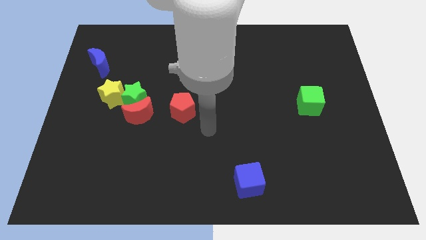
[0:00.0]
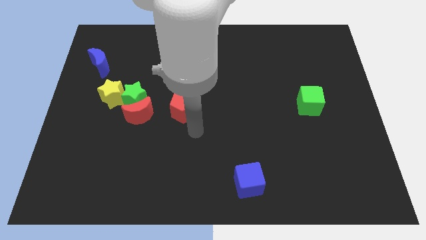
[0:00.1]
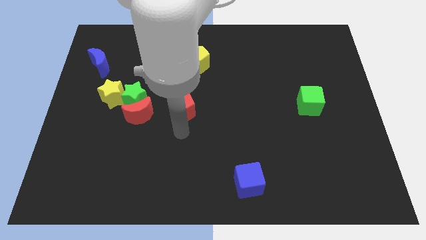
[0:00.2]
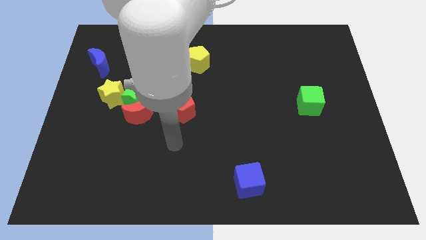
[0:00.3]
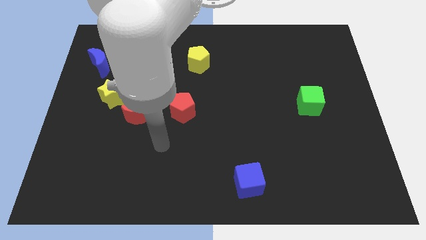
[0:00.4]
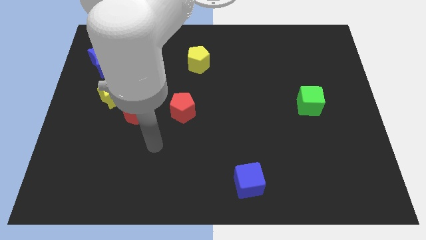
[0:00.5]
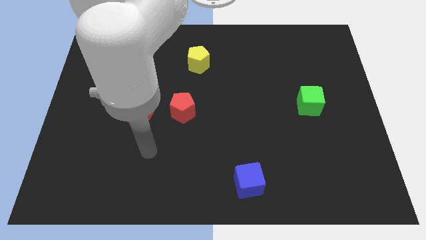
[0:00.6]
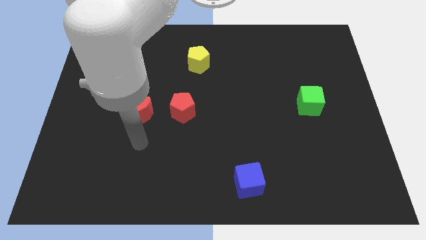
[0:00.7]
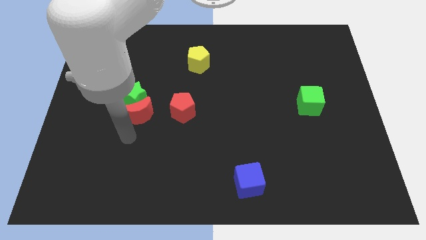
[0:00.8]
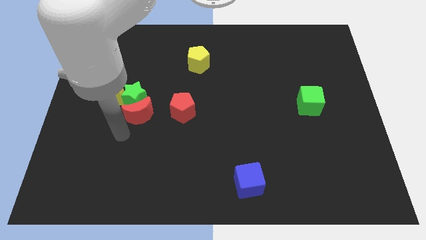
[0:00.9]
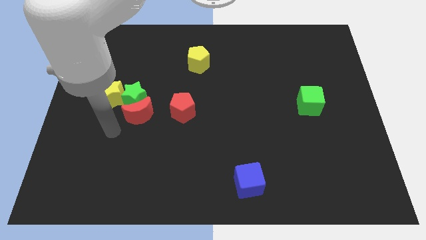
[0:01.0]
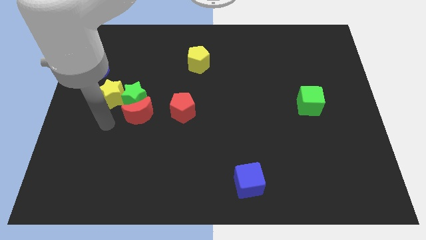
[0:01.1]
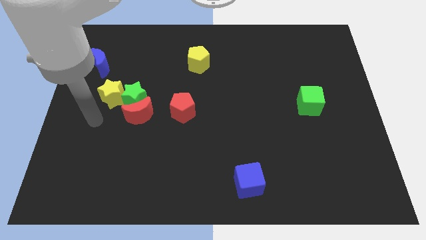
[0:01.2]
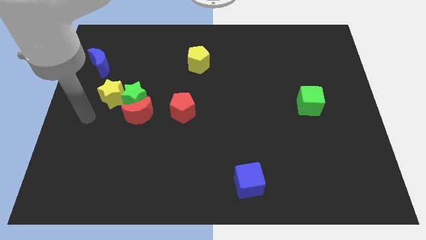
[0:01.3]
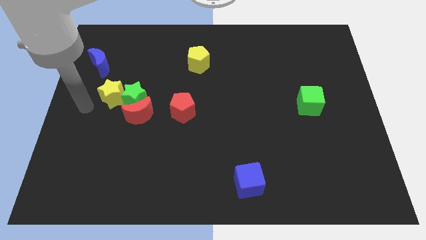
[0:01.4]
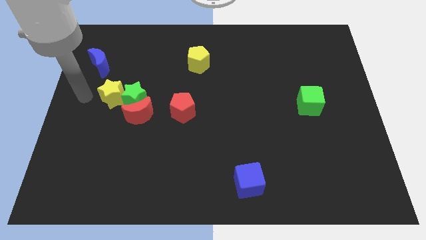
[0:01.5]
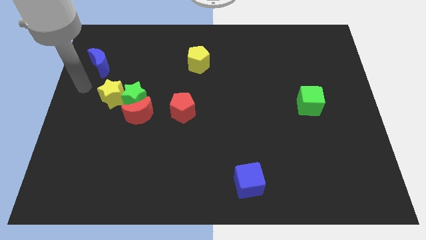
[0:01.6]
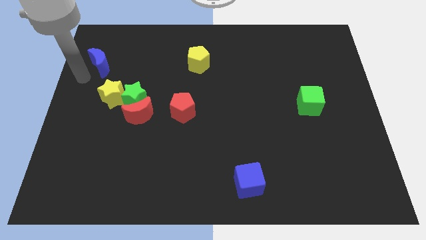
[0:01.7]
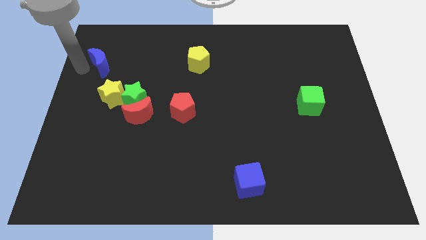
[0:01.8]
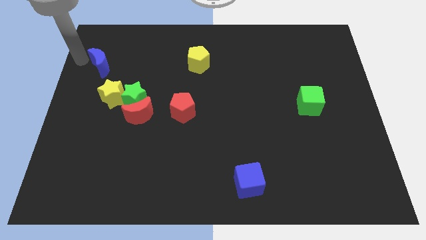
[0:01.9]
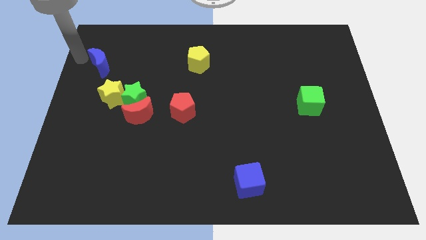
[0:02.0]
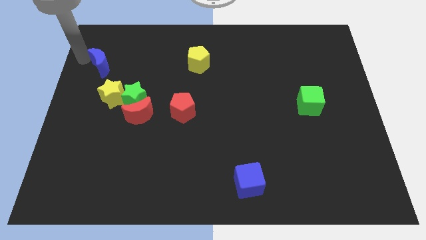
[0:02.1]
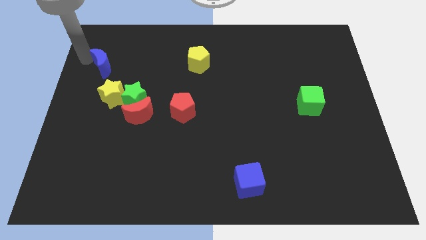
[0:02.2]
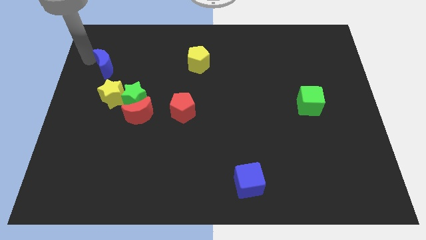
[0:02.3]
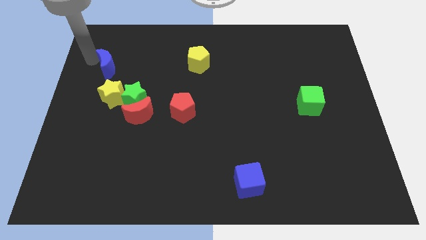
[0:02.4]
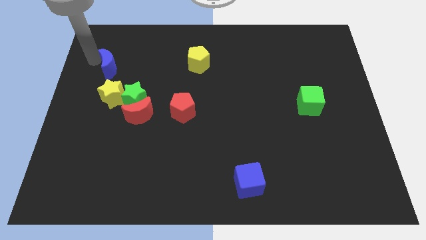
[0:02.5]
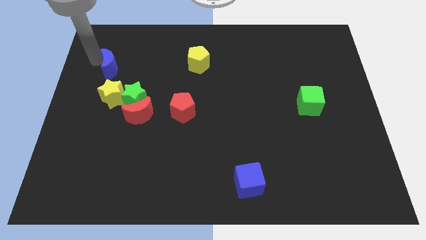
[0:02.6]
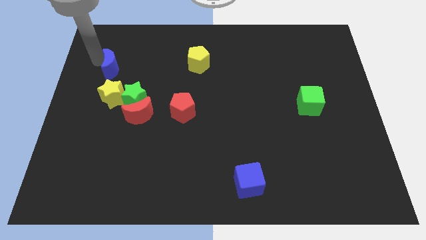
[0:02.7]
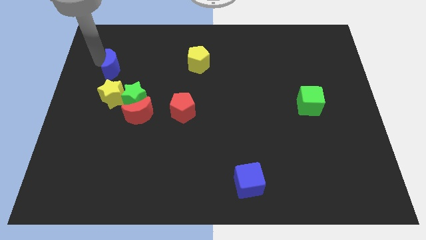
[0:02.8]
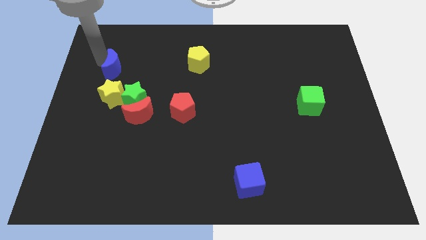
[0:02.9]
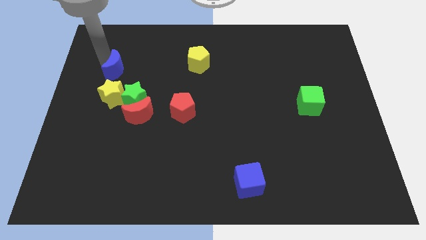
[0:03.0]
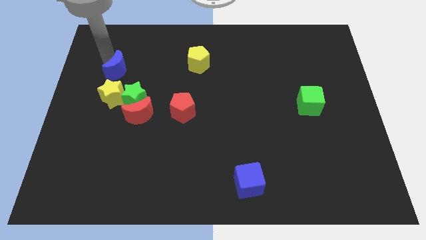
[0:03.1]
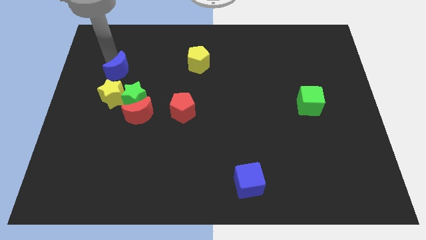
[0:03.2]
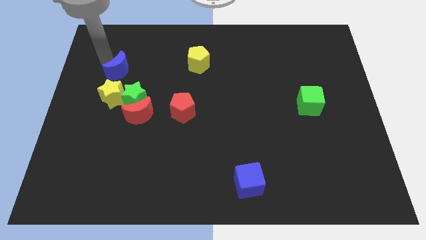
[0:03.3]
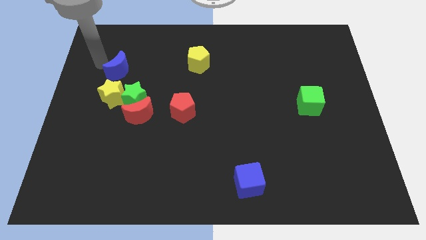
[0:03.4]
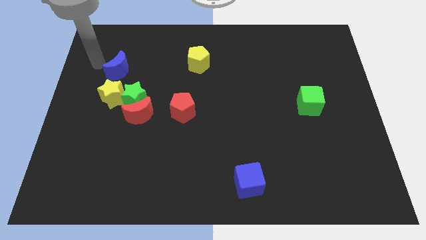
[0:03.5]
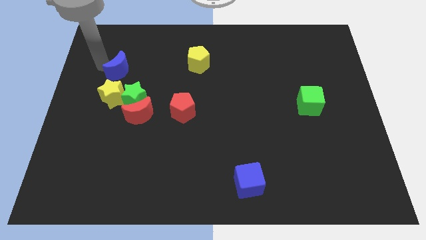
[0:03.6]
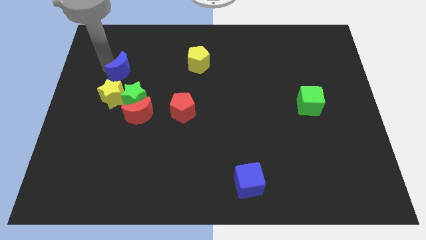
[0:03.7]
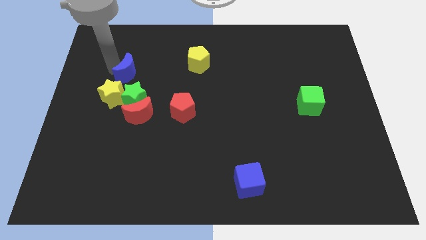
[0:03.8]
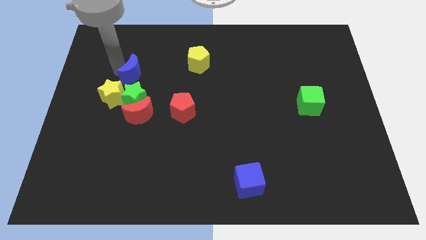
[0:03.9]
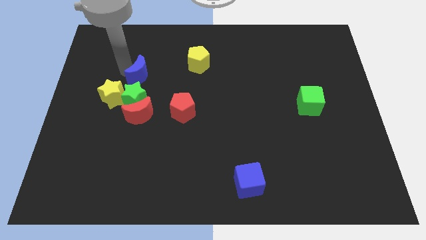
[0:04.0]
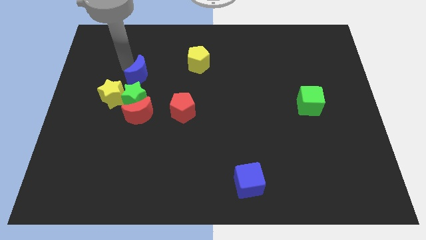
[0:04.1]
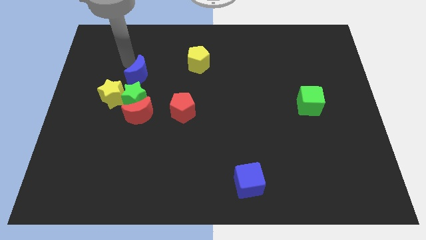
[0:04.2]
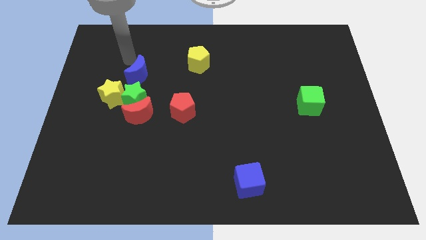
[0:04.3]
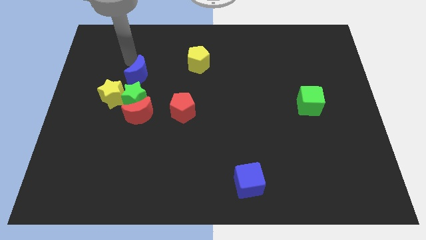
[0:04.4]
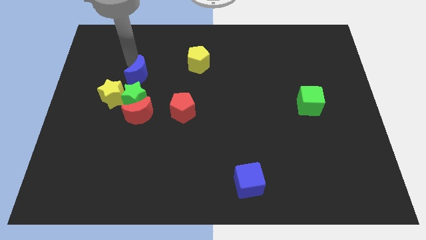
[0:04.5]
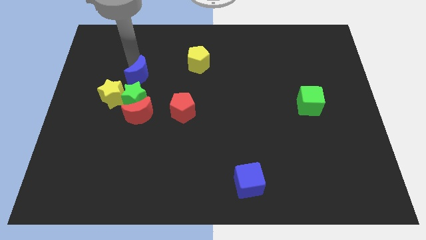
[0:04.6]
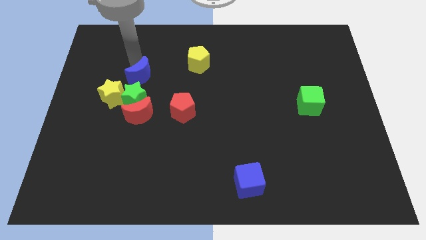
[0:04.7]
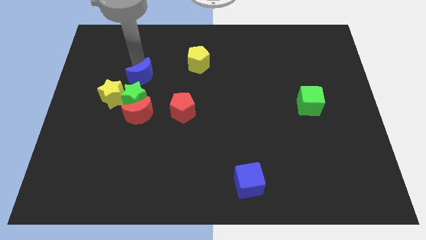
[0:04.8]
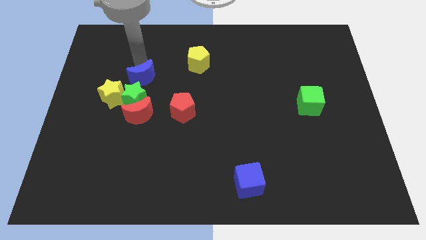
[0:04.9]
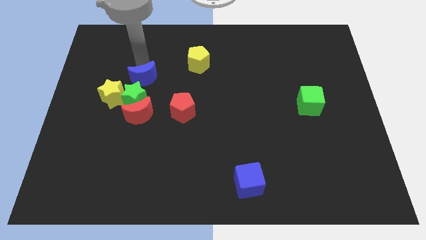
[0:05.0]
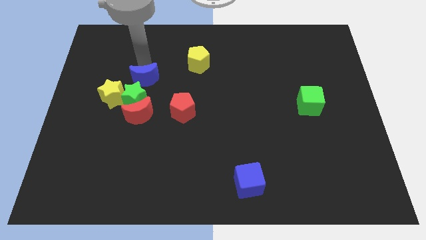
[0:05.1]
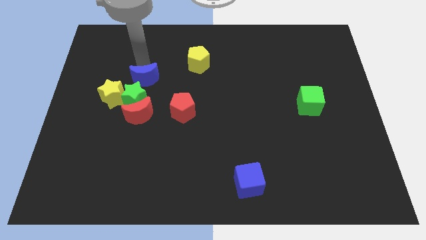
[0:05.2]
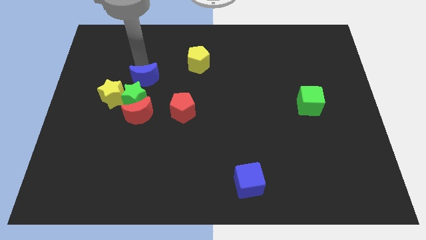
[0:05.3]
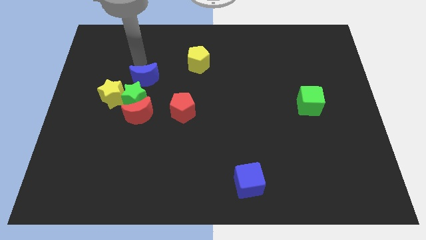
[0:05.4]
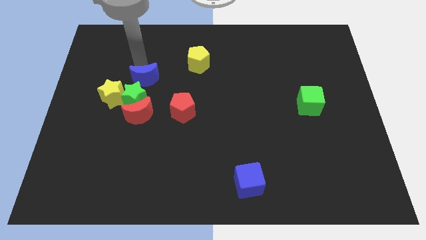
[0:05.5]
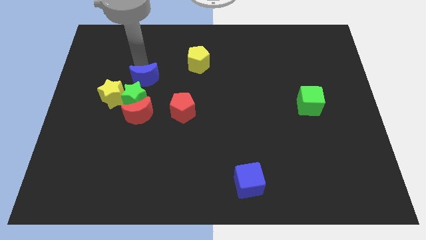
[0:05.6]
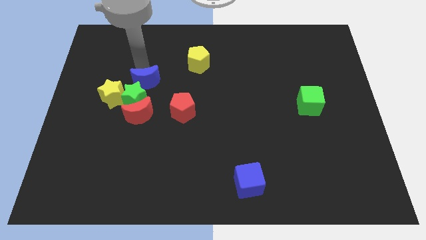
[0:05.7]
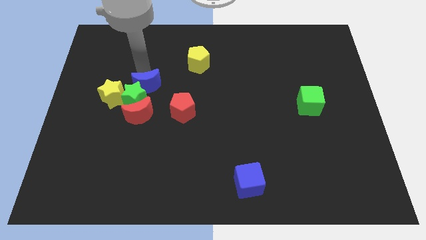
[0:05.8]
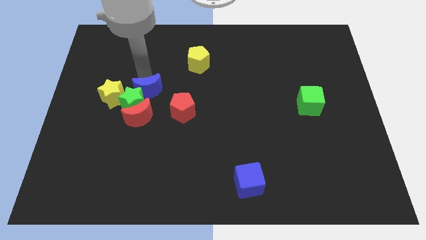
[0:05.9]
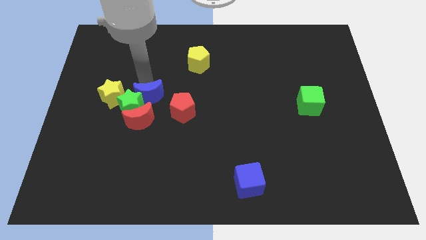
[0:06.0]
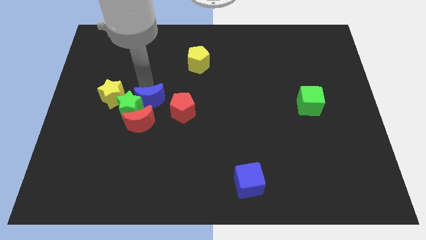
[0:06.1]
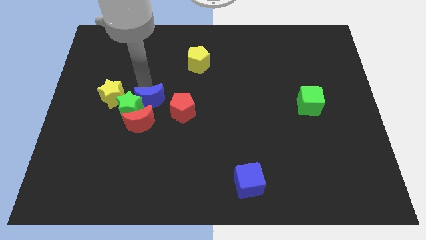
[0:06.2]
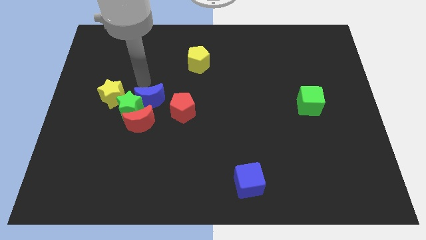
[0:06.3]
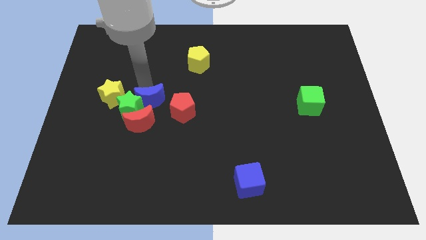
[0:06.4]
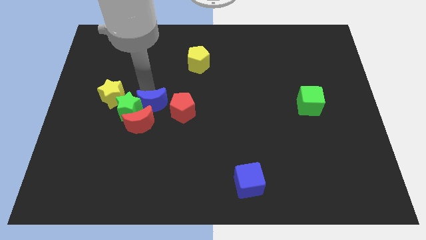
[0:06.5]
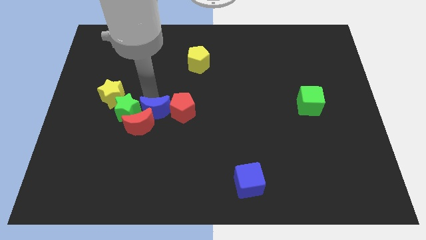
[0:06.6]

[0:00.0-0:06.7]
push the blue moon diagonally downwards and to the right

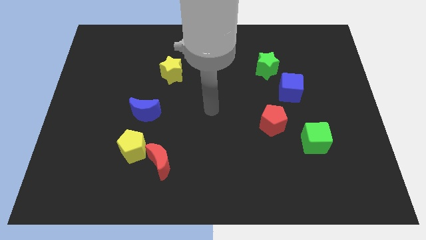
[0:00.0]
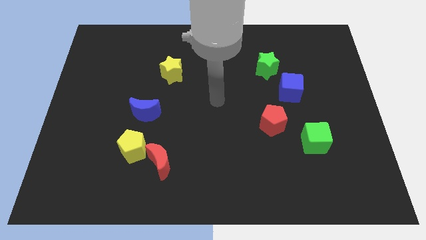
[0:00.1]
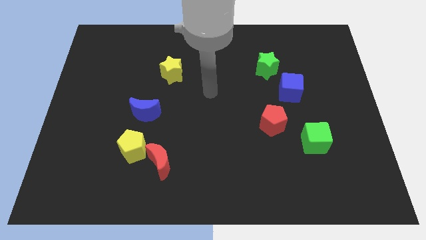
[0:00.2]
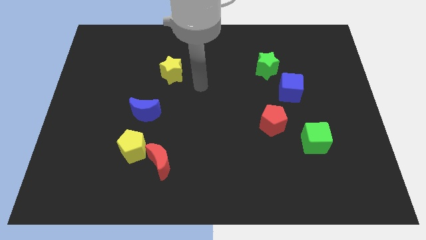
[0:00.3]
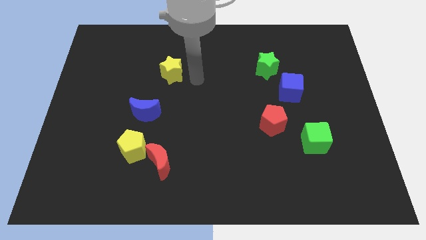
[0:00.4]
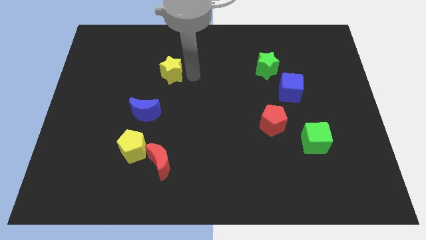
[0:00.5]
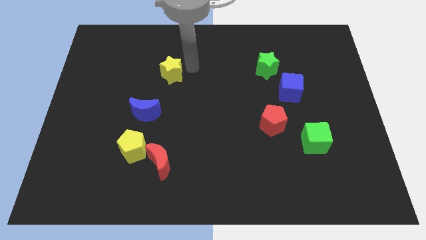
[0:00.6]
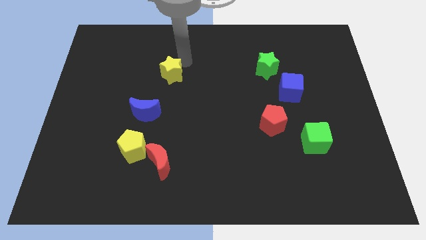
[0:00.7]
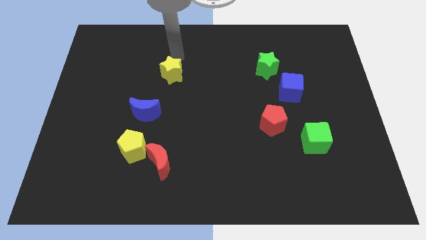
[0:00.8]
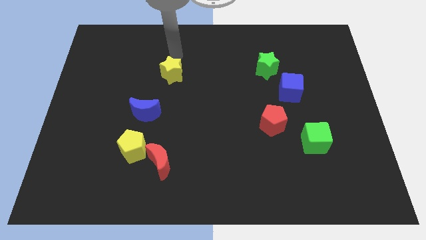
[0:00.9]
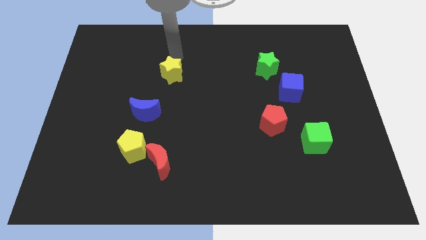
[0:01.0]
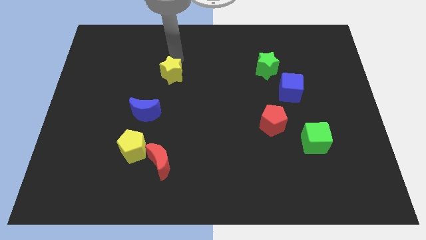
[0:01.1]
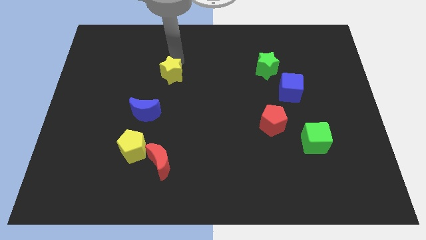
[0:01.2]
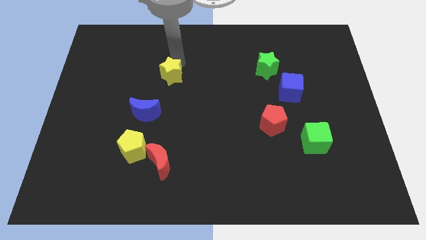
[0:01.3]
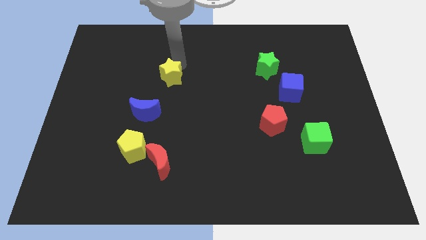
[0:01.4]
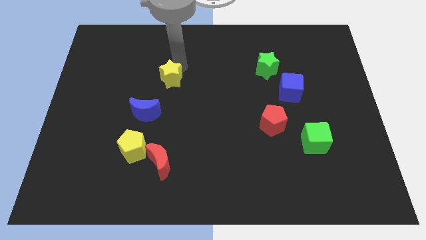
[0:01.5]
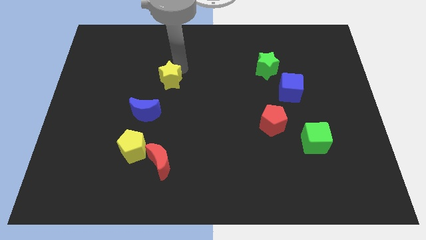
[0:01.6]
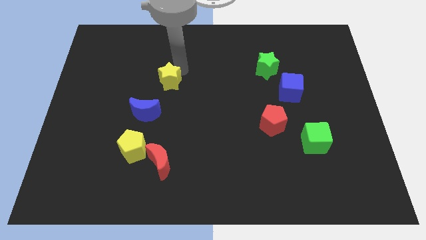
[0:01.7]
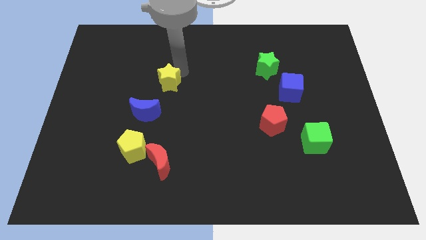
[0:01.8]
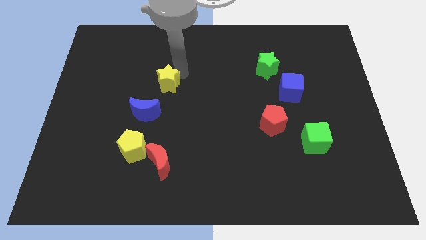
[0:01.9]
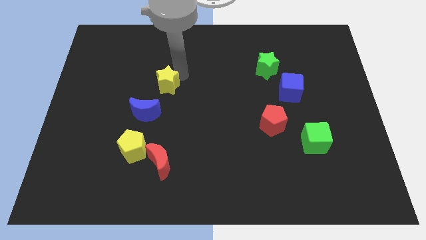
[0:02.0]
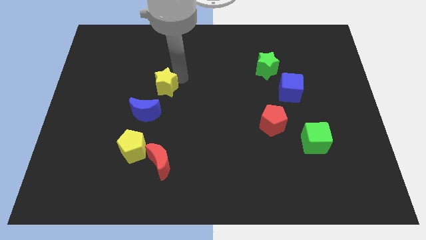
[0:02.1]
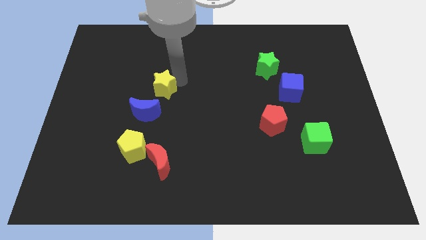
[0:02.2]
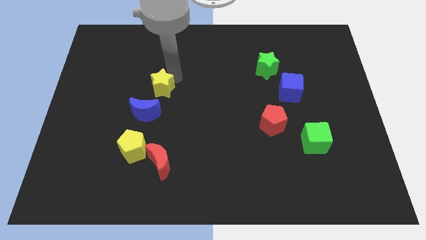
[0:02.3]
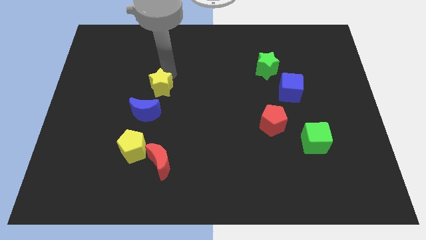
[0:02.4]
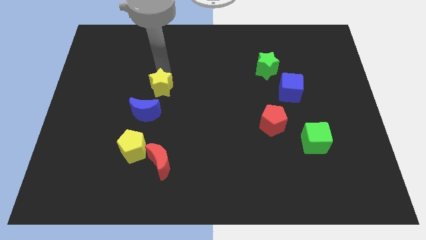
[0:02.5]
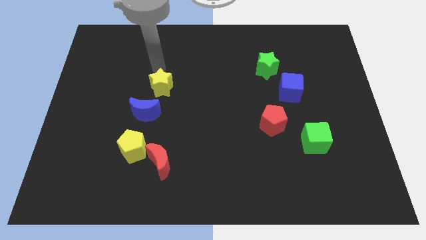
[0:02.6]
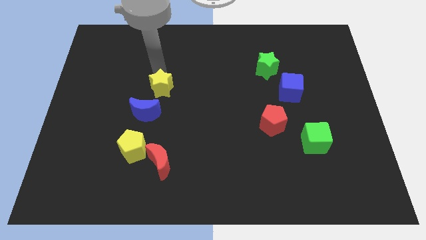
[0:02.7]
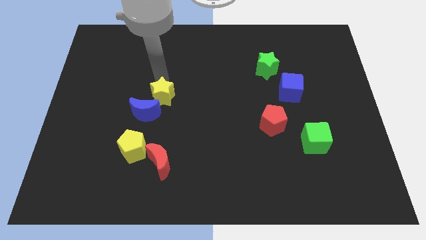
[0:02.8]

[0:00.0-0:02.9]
slide the yellow star downwards somewhat
